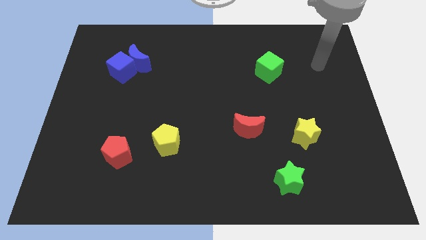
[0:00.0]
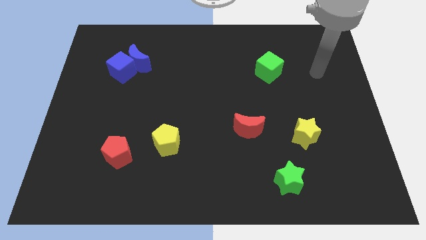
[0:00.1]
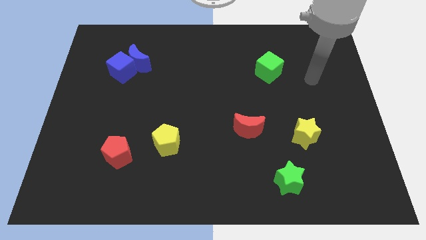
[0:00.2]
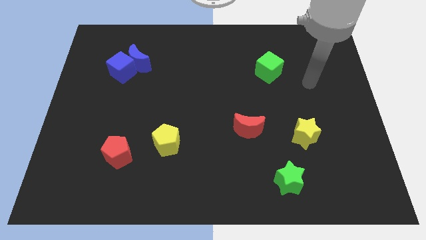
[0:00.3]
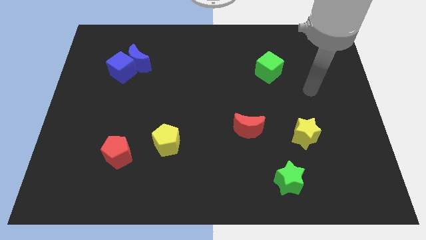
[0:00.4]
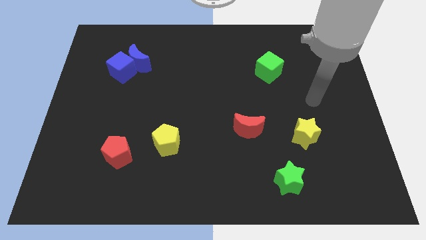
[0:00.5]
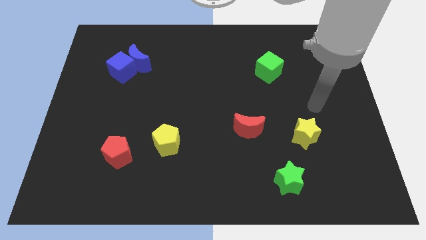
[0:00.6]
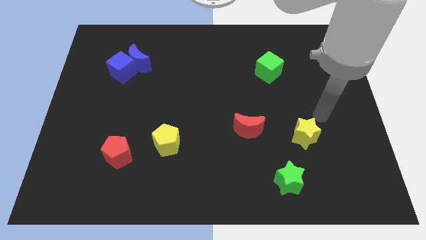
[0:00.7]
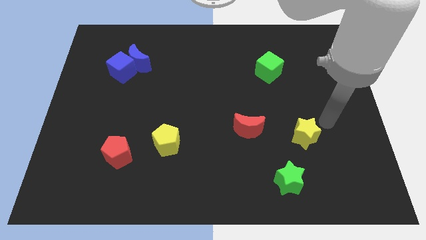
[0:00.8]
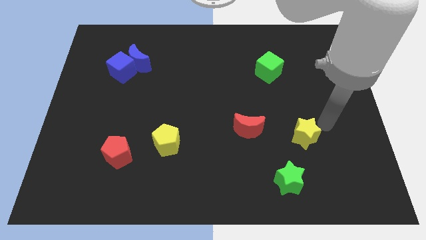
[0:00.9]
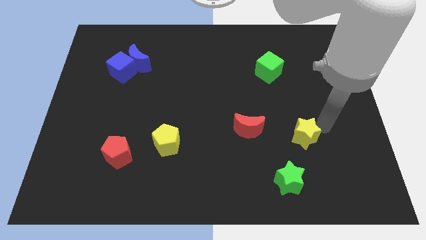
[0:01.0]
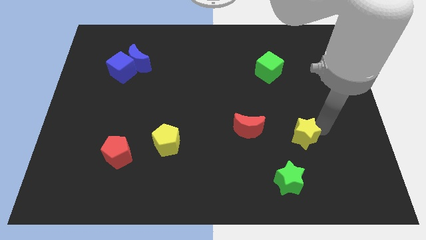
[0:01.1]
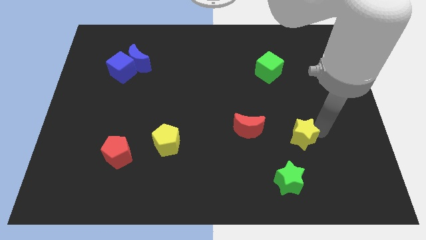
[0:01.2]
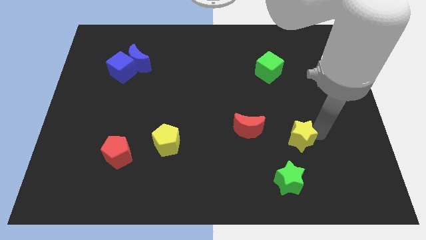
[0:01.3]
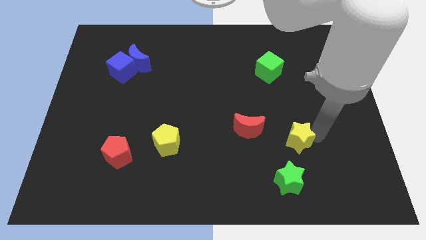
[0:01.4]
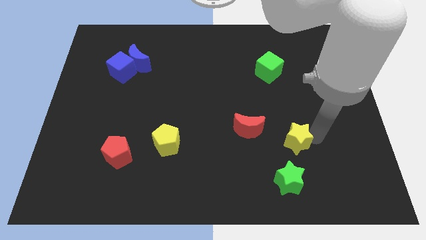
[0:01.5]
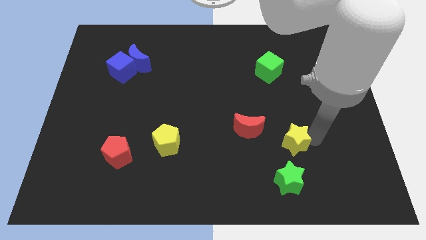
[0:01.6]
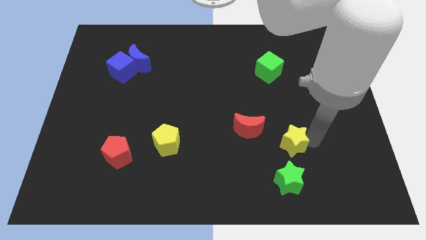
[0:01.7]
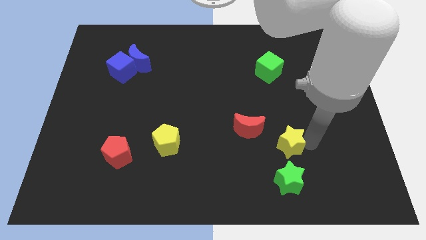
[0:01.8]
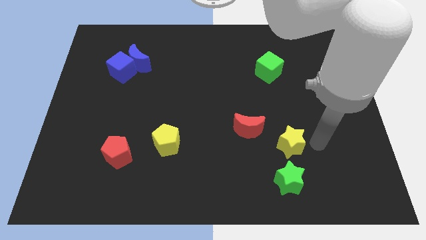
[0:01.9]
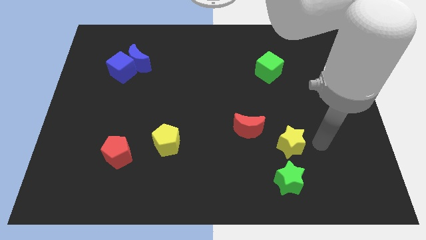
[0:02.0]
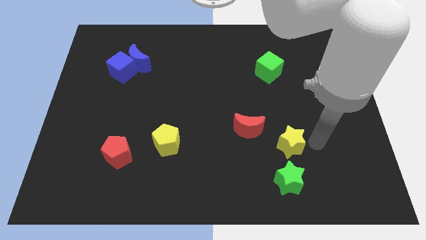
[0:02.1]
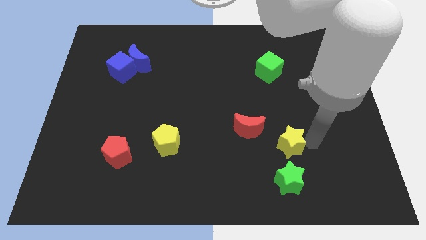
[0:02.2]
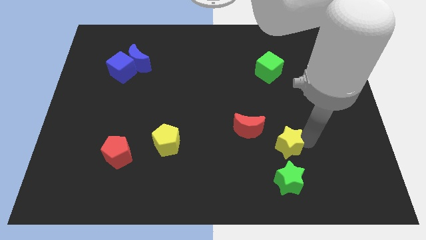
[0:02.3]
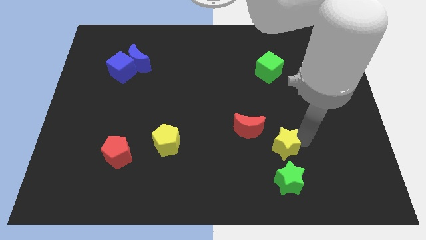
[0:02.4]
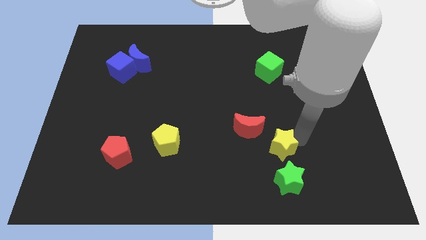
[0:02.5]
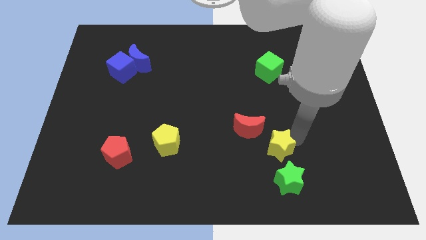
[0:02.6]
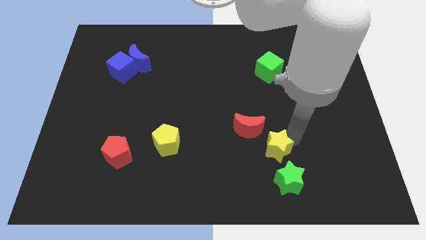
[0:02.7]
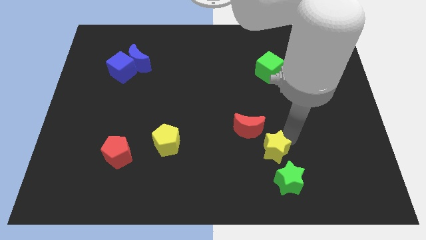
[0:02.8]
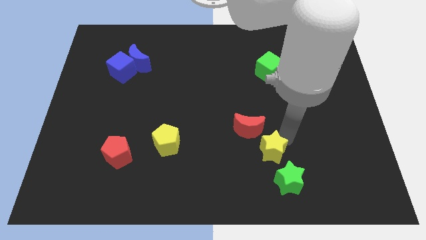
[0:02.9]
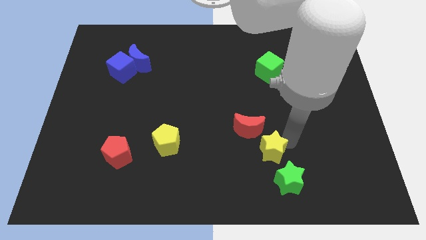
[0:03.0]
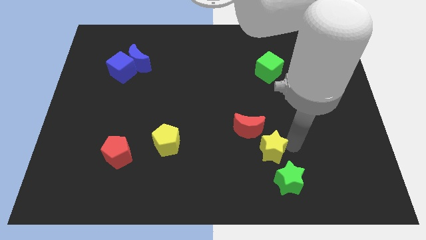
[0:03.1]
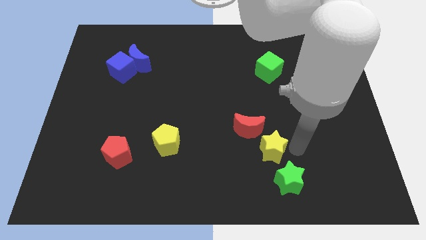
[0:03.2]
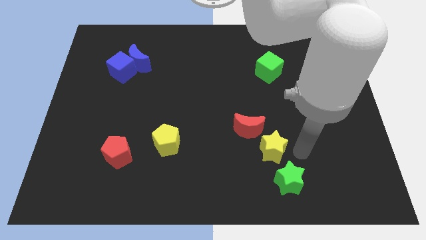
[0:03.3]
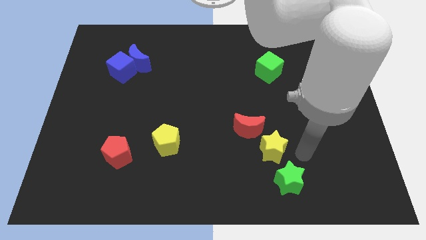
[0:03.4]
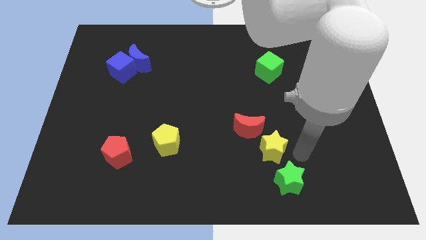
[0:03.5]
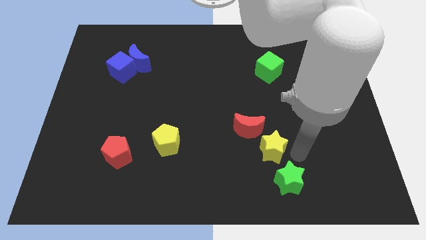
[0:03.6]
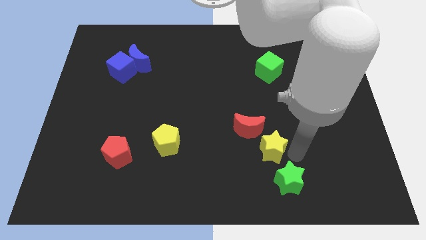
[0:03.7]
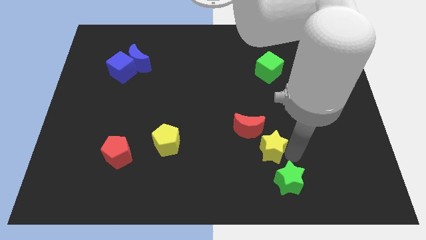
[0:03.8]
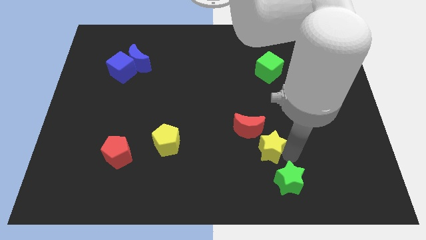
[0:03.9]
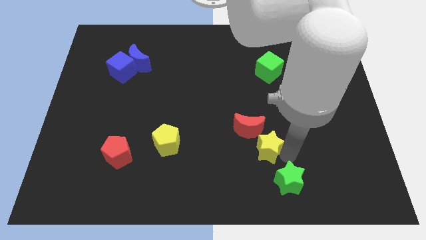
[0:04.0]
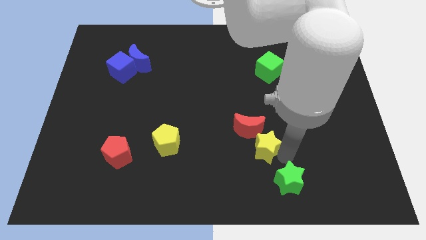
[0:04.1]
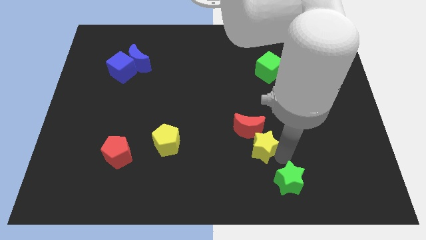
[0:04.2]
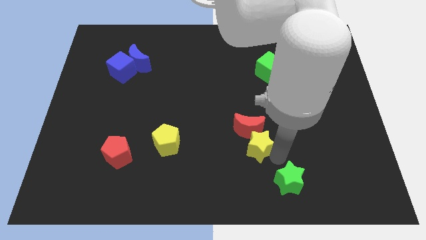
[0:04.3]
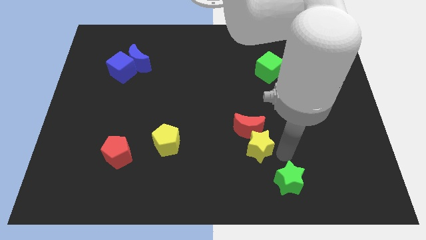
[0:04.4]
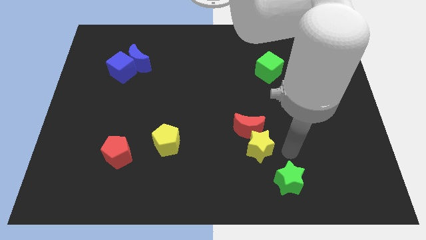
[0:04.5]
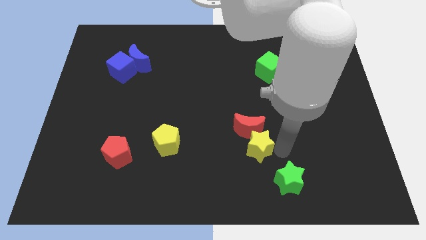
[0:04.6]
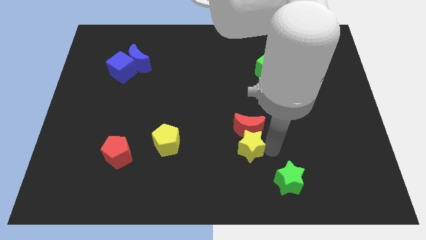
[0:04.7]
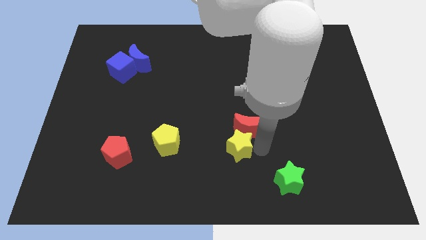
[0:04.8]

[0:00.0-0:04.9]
put the yellow star to the right side of the yellow pentagon

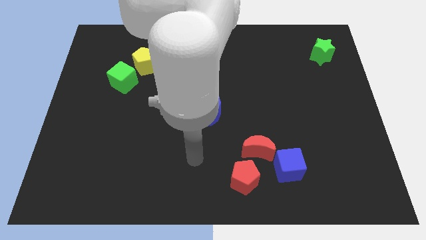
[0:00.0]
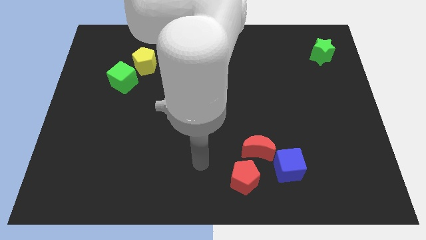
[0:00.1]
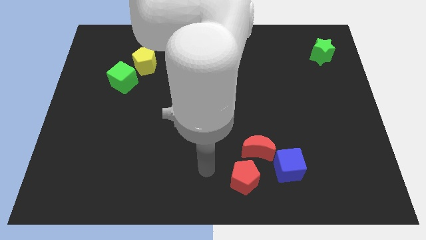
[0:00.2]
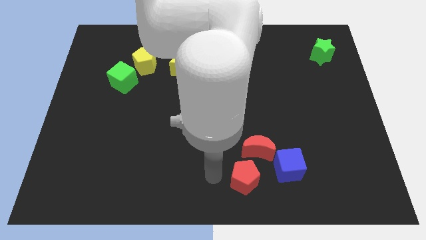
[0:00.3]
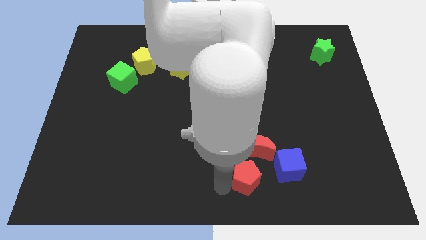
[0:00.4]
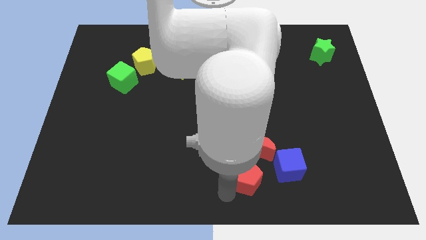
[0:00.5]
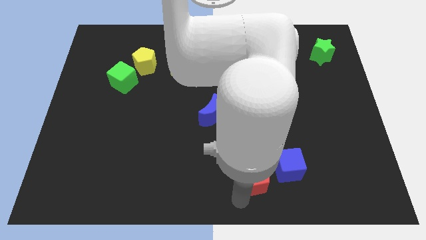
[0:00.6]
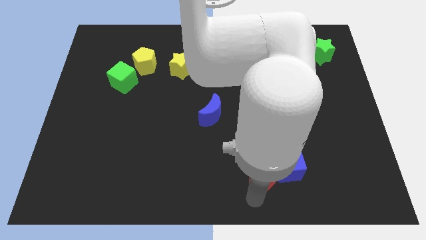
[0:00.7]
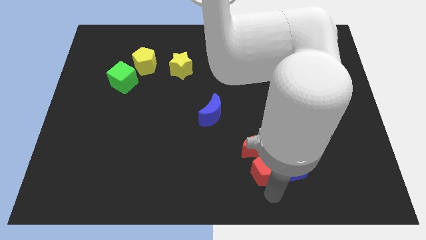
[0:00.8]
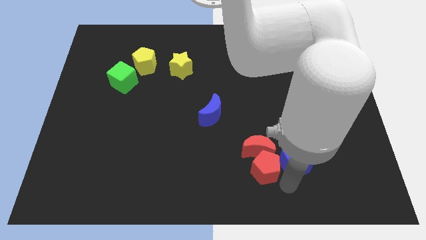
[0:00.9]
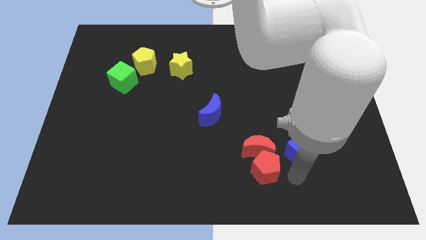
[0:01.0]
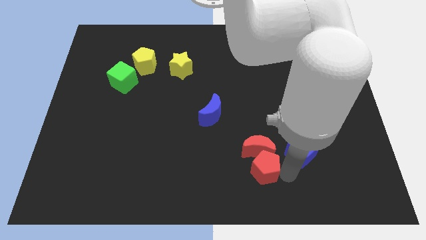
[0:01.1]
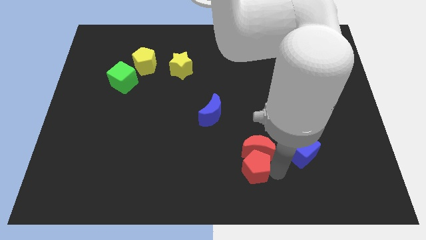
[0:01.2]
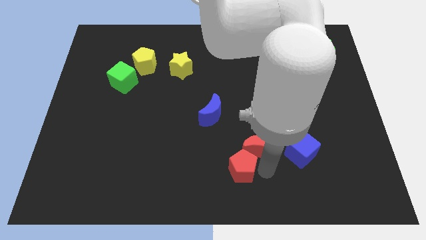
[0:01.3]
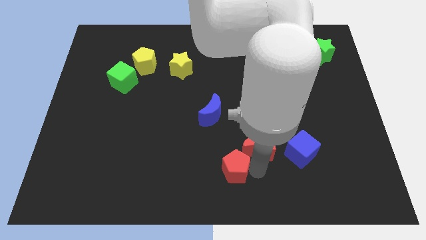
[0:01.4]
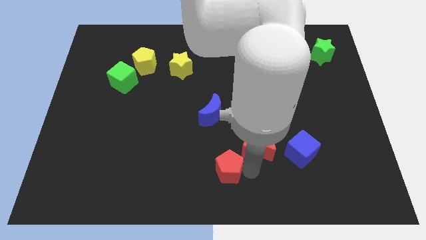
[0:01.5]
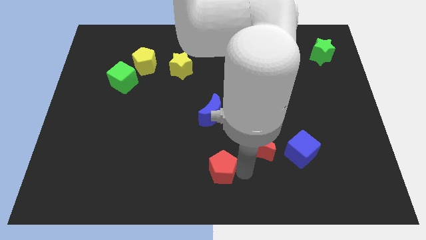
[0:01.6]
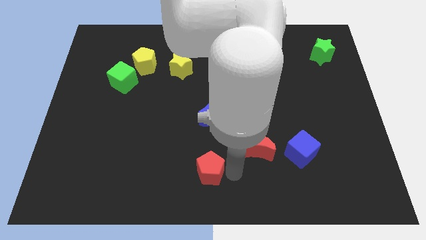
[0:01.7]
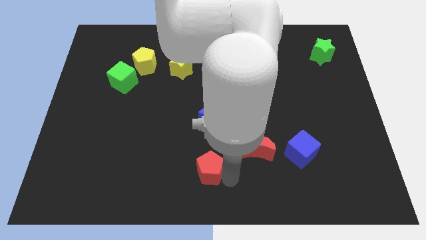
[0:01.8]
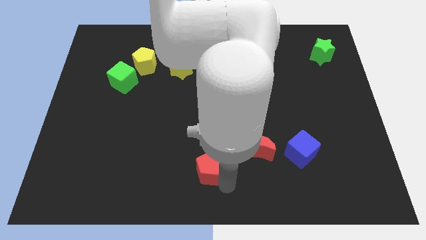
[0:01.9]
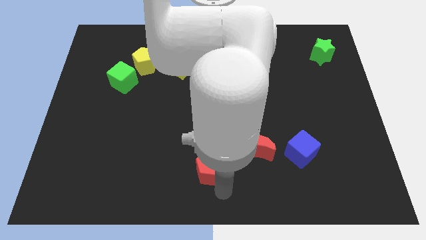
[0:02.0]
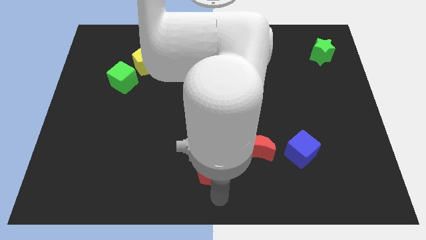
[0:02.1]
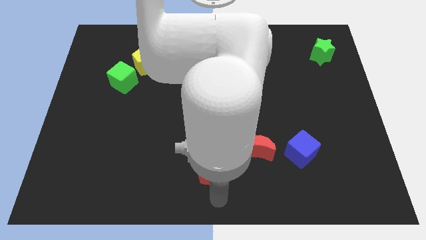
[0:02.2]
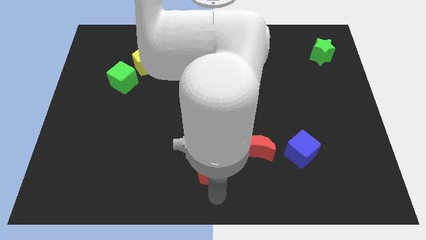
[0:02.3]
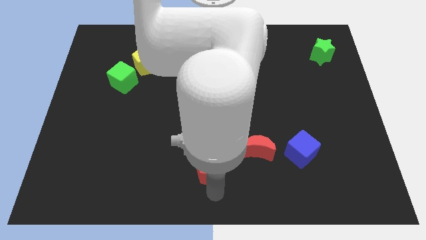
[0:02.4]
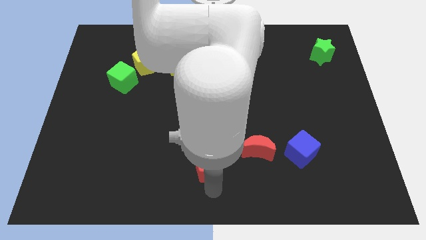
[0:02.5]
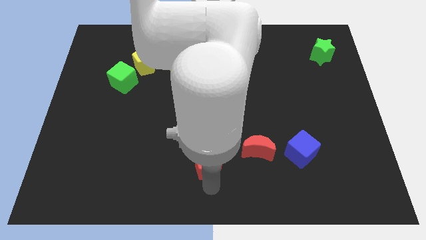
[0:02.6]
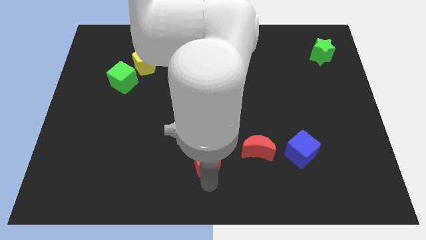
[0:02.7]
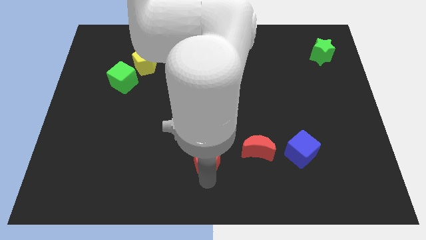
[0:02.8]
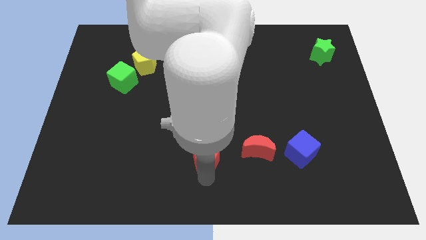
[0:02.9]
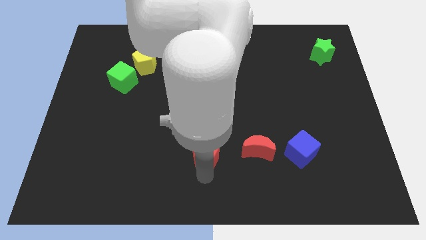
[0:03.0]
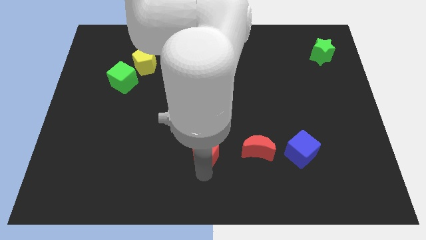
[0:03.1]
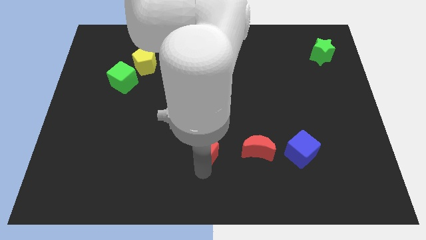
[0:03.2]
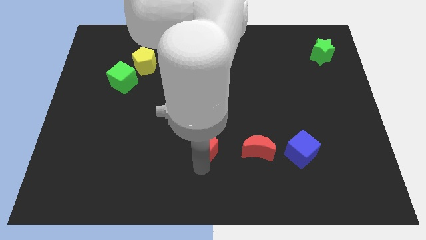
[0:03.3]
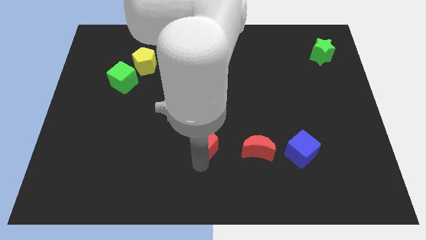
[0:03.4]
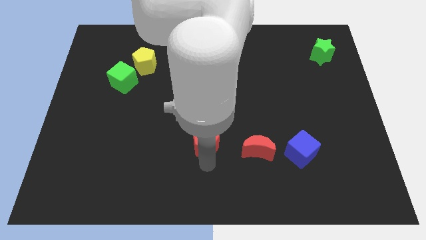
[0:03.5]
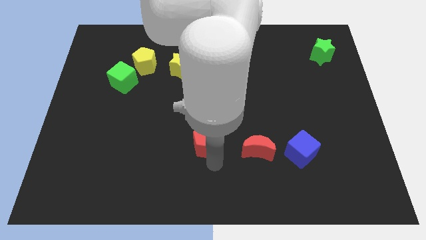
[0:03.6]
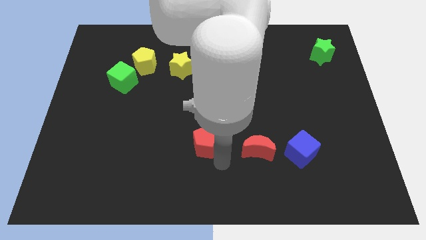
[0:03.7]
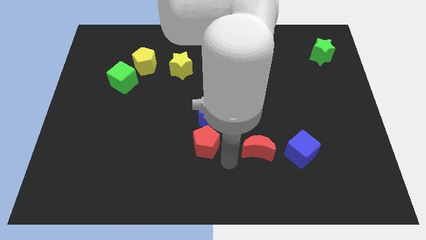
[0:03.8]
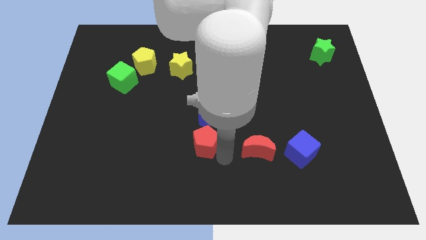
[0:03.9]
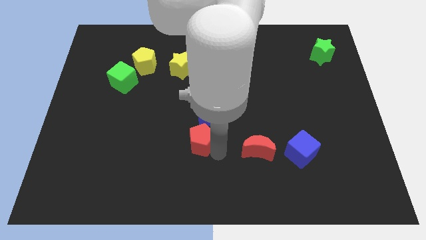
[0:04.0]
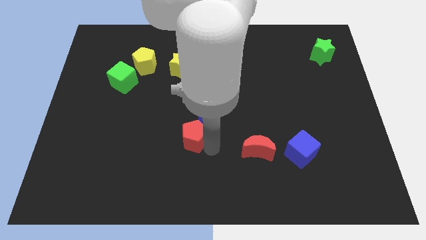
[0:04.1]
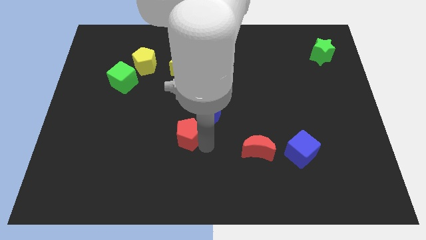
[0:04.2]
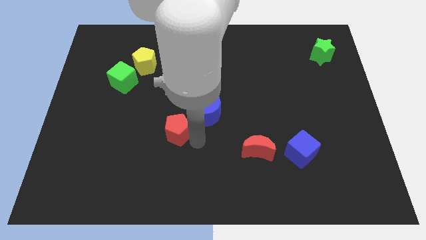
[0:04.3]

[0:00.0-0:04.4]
push the red pentagon left of the blue moon
